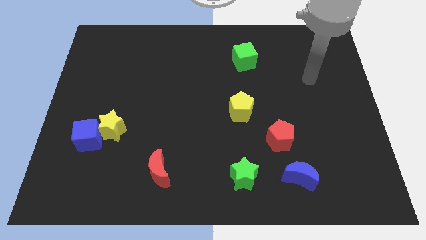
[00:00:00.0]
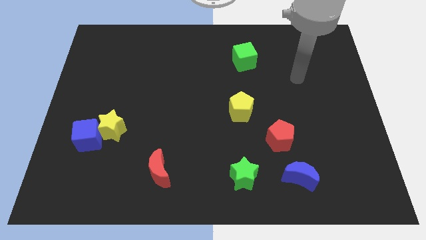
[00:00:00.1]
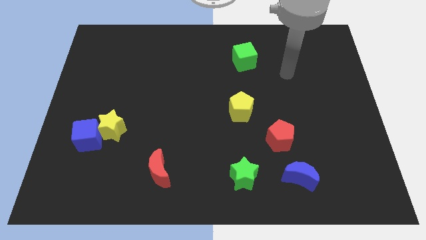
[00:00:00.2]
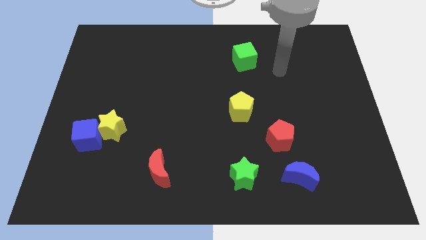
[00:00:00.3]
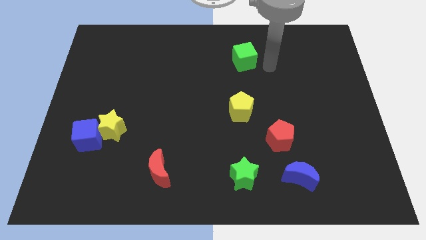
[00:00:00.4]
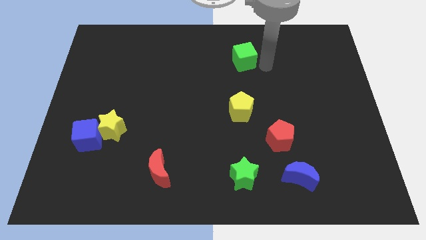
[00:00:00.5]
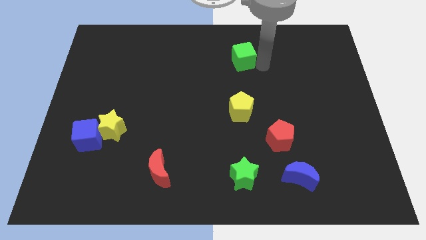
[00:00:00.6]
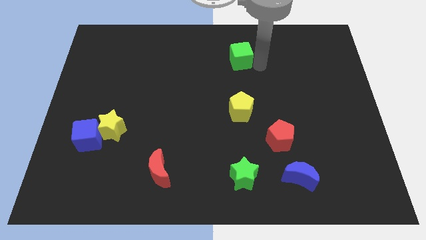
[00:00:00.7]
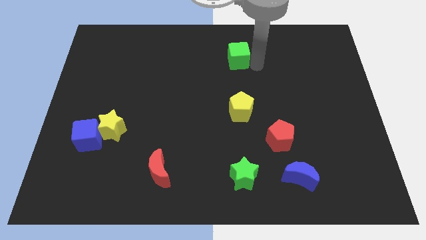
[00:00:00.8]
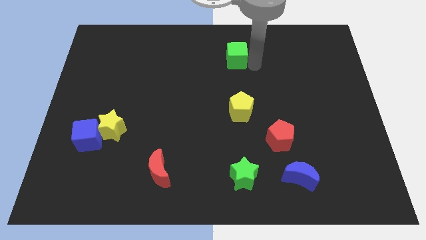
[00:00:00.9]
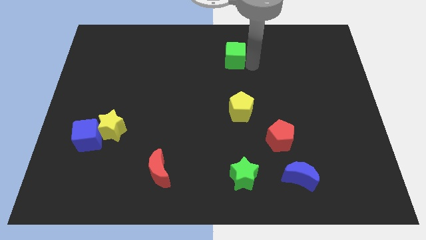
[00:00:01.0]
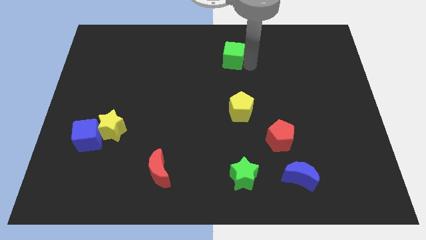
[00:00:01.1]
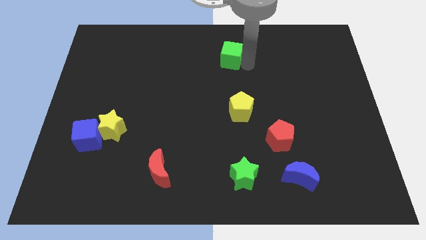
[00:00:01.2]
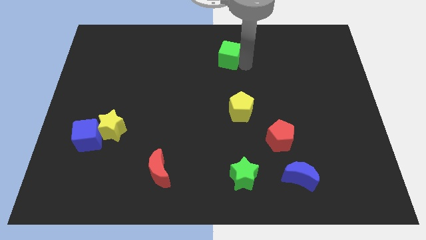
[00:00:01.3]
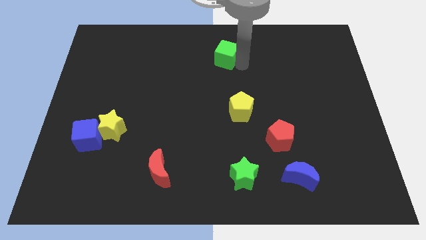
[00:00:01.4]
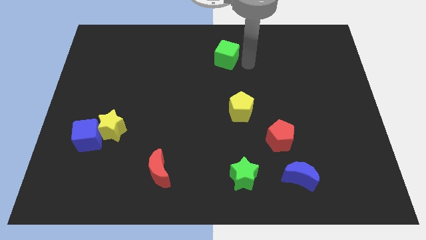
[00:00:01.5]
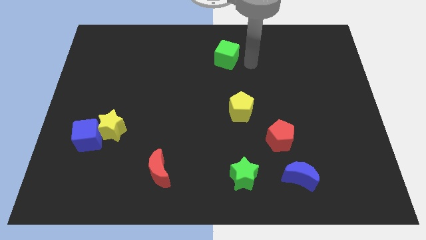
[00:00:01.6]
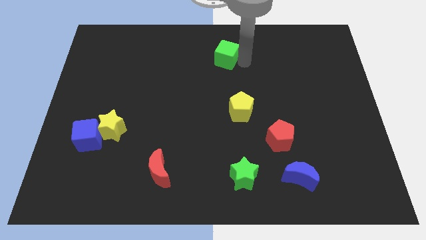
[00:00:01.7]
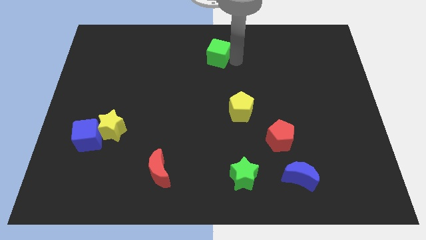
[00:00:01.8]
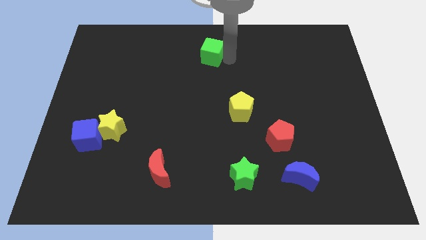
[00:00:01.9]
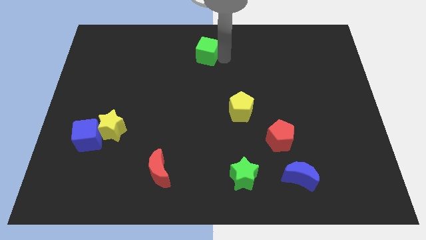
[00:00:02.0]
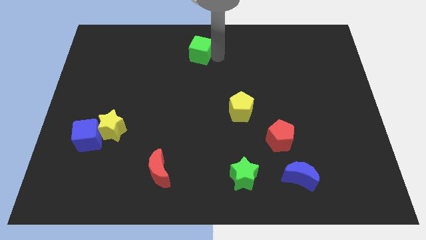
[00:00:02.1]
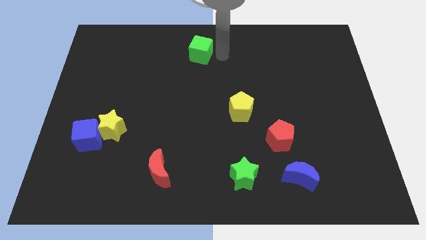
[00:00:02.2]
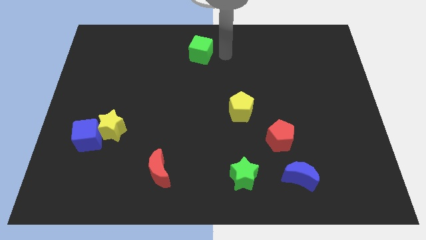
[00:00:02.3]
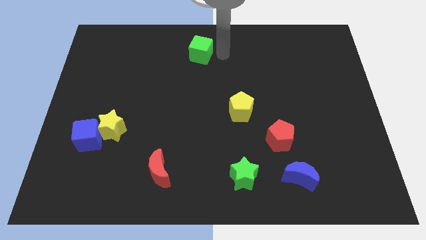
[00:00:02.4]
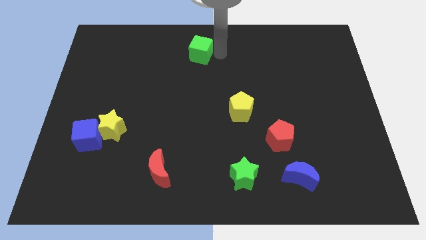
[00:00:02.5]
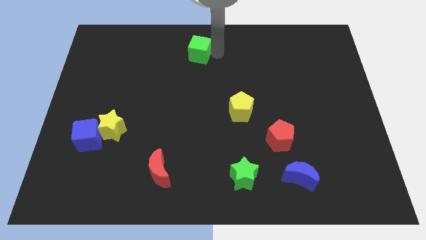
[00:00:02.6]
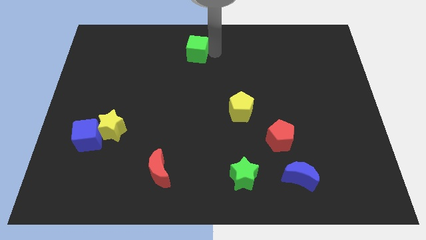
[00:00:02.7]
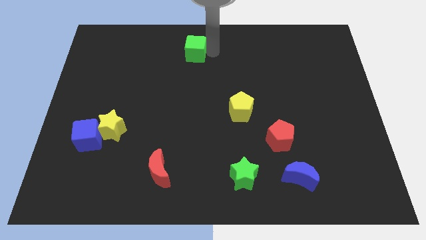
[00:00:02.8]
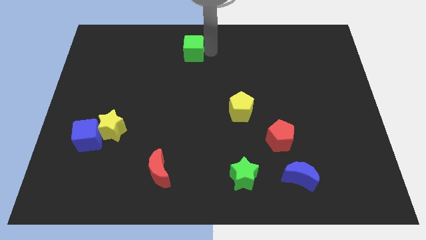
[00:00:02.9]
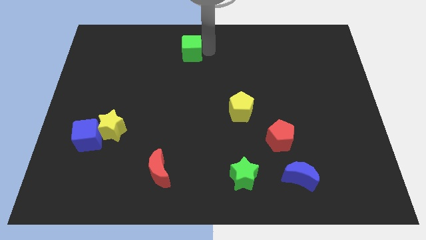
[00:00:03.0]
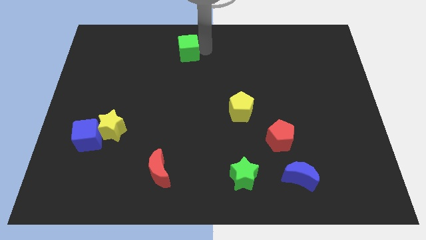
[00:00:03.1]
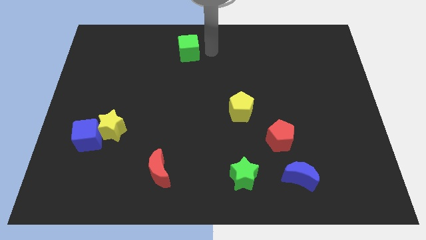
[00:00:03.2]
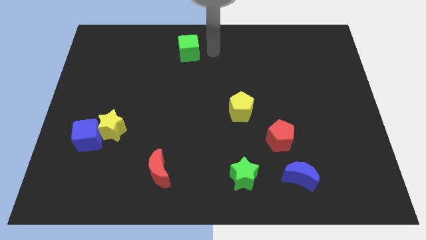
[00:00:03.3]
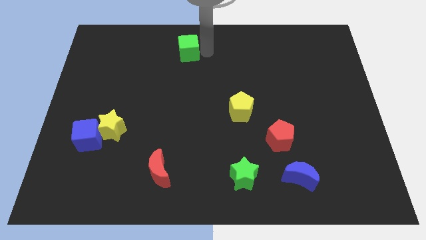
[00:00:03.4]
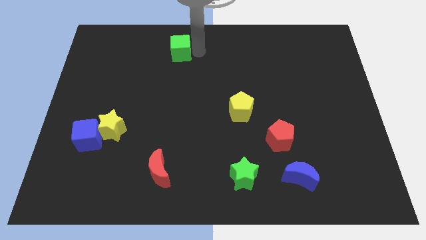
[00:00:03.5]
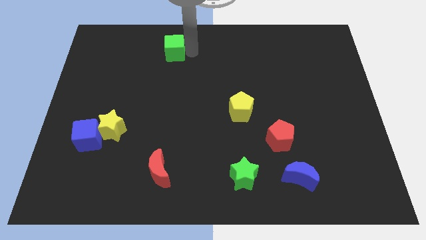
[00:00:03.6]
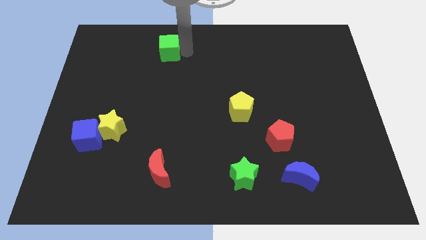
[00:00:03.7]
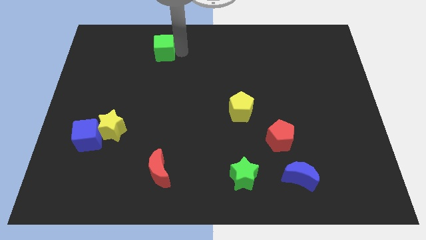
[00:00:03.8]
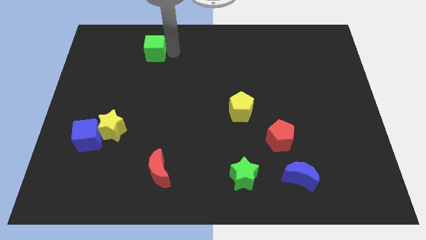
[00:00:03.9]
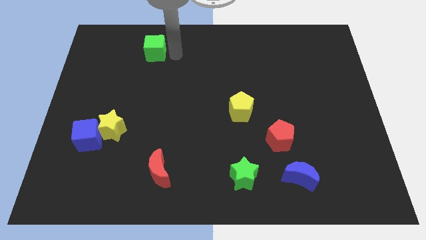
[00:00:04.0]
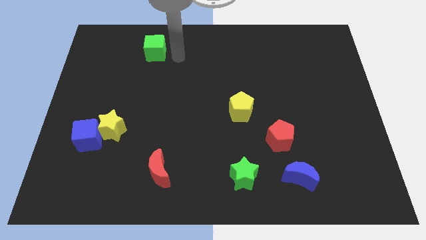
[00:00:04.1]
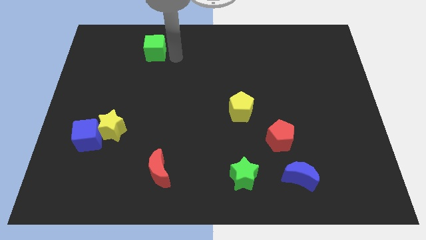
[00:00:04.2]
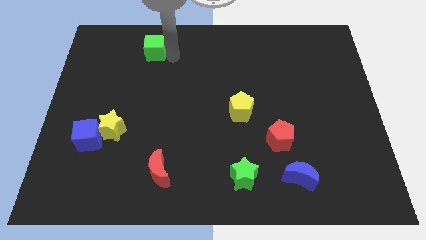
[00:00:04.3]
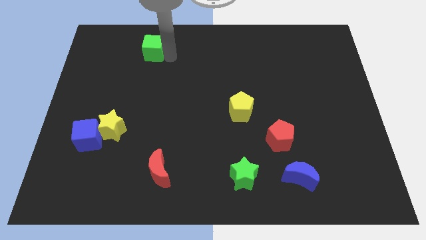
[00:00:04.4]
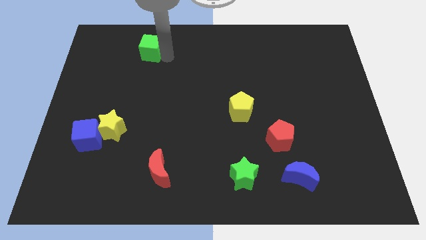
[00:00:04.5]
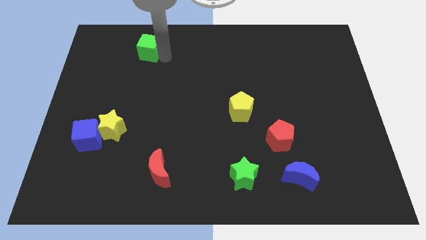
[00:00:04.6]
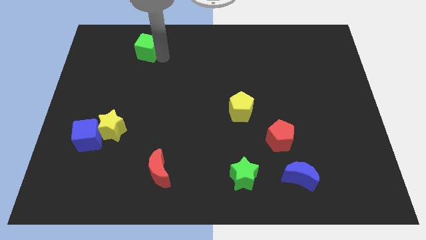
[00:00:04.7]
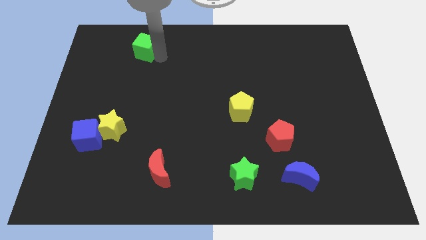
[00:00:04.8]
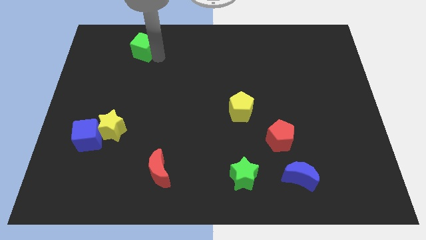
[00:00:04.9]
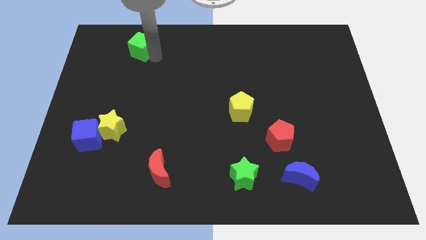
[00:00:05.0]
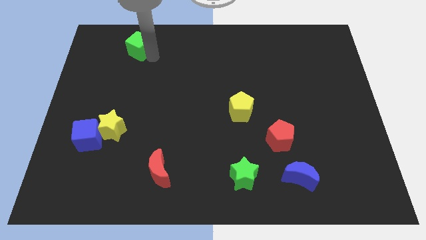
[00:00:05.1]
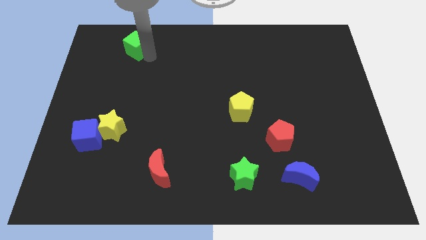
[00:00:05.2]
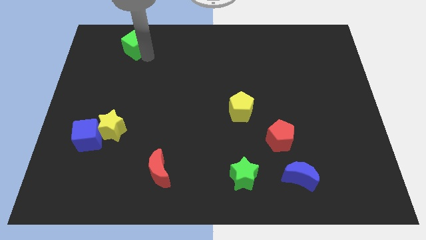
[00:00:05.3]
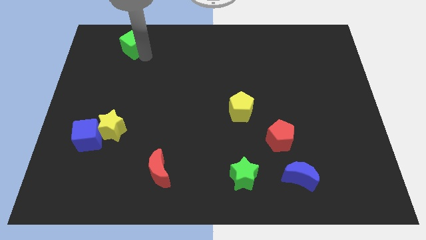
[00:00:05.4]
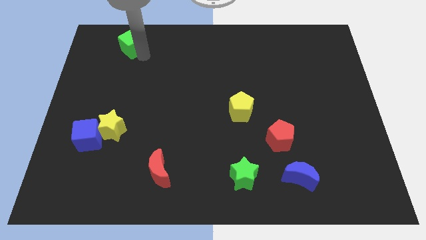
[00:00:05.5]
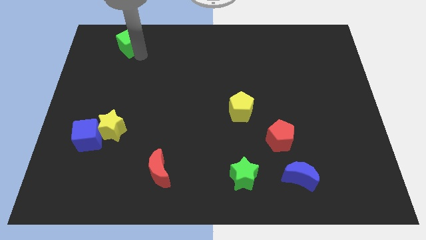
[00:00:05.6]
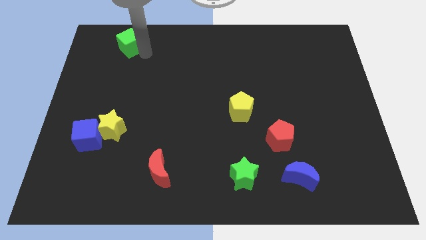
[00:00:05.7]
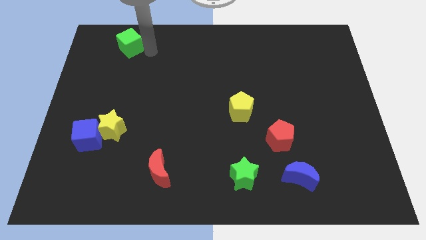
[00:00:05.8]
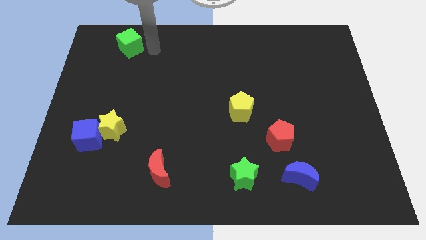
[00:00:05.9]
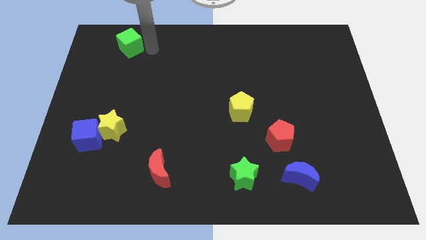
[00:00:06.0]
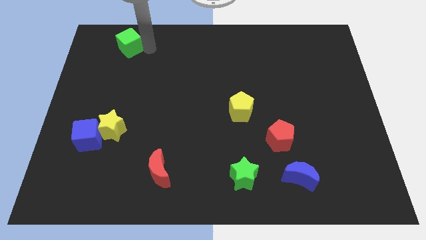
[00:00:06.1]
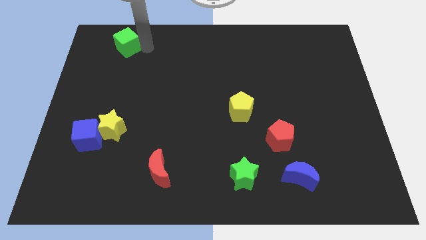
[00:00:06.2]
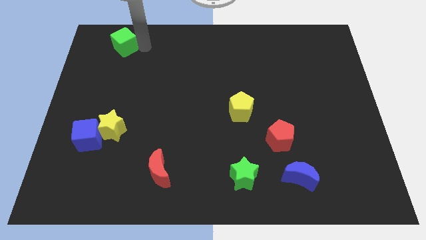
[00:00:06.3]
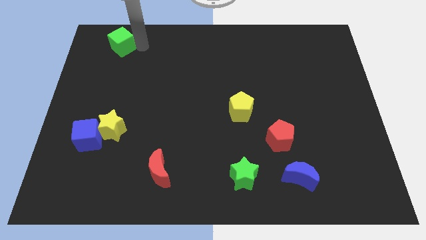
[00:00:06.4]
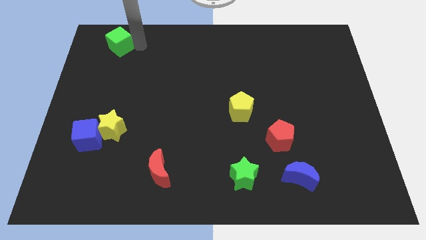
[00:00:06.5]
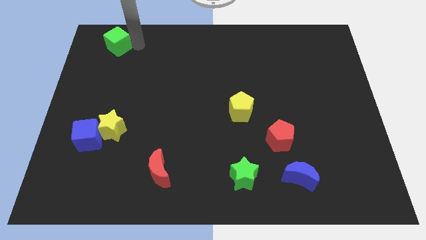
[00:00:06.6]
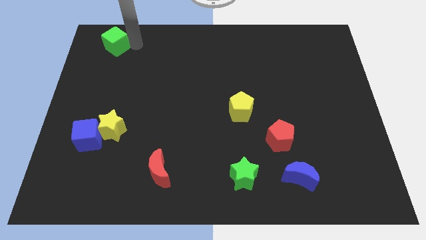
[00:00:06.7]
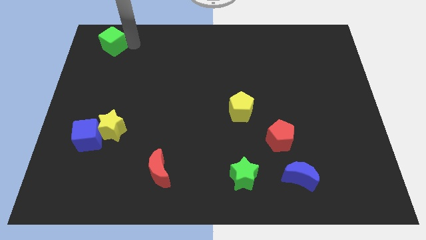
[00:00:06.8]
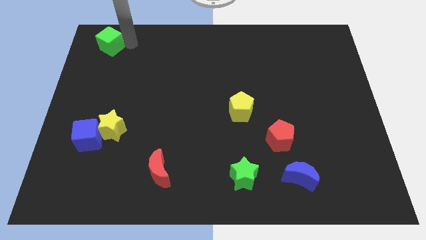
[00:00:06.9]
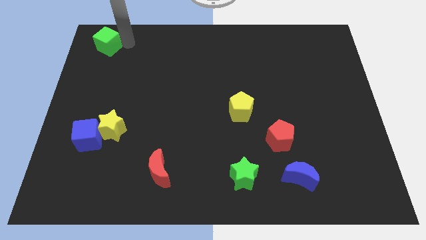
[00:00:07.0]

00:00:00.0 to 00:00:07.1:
put the green cube to the top left of the board
